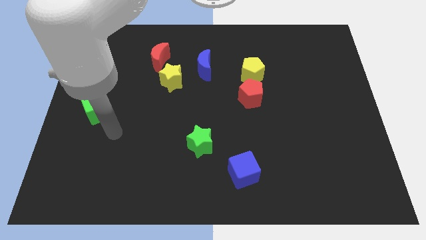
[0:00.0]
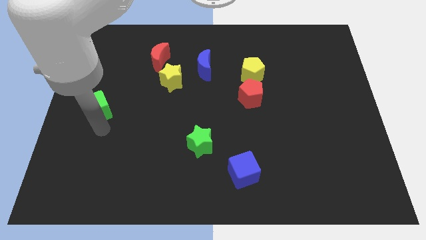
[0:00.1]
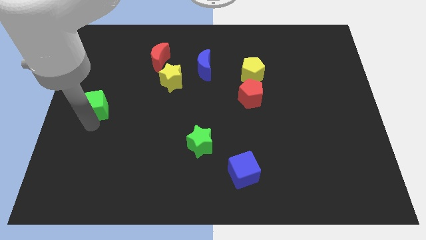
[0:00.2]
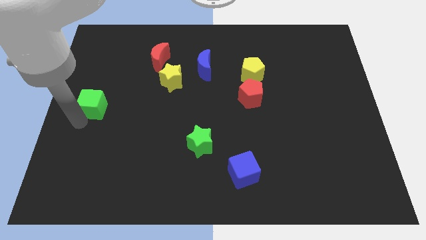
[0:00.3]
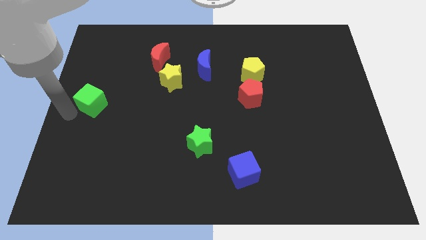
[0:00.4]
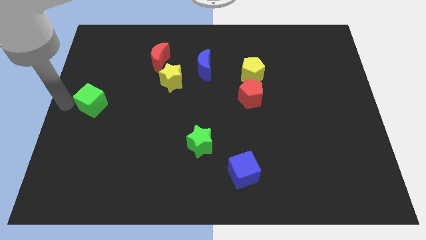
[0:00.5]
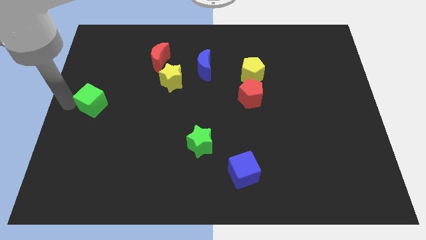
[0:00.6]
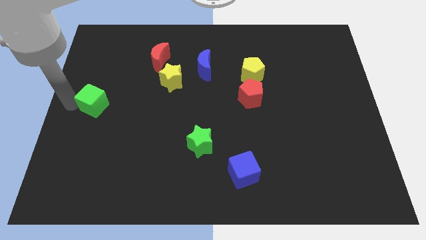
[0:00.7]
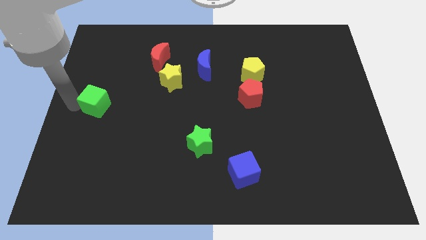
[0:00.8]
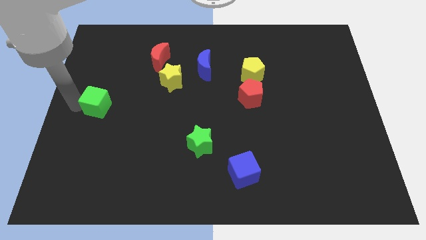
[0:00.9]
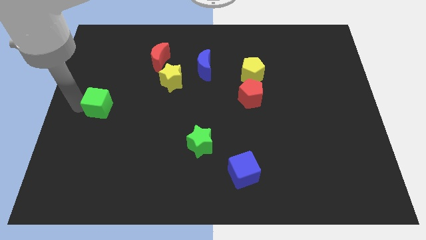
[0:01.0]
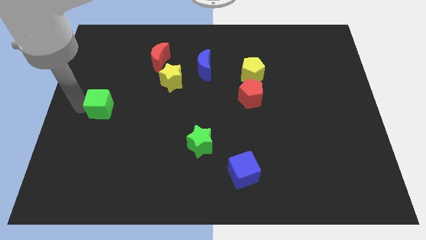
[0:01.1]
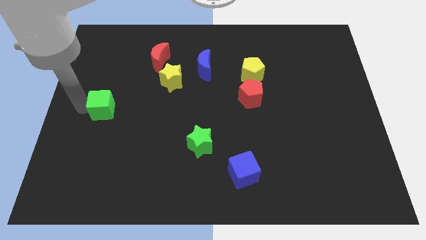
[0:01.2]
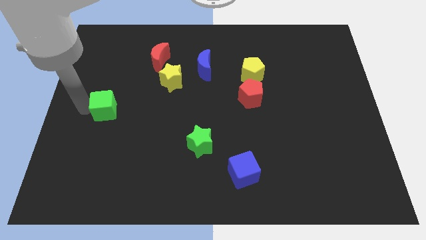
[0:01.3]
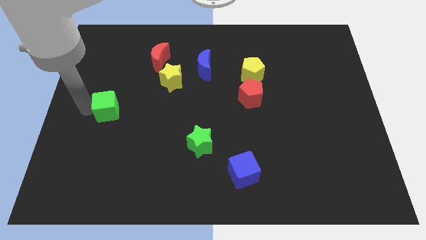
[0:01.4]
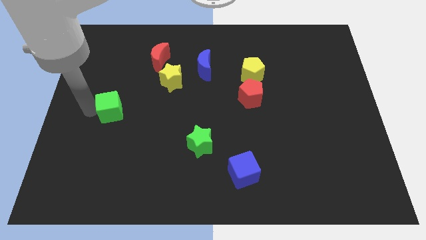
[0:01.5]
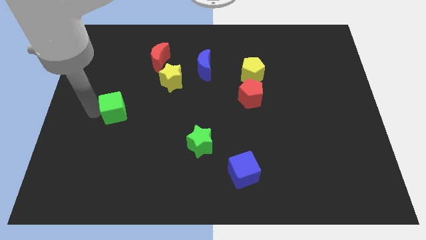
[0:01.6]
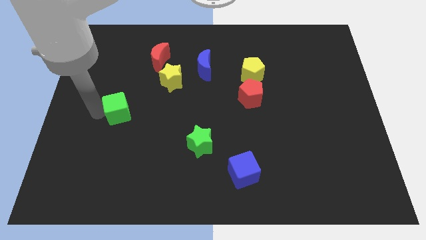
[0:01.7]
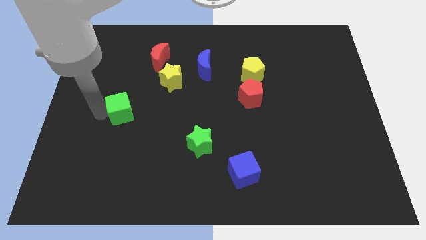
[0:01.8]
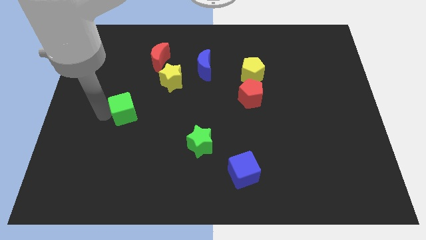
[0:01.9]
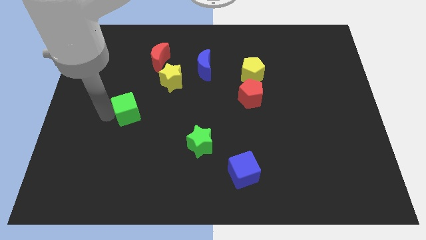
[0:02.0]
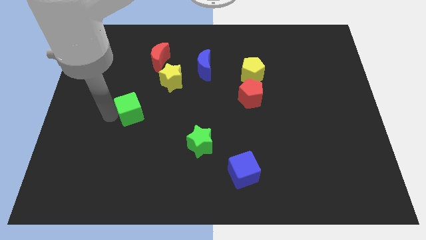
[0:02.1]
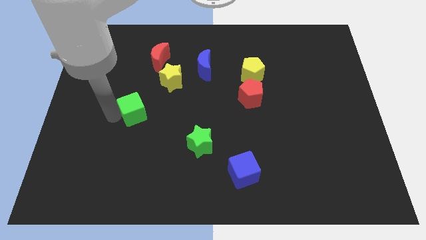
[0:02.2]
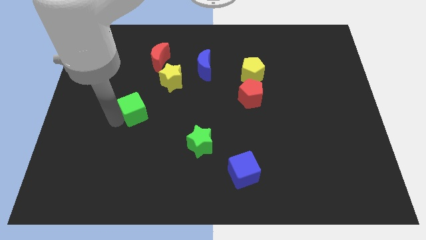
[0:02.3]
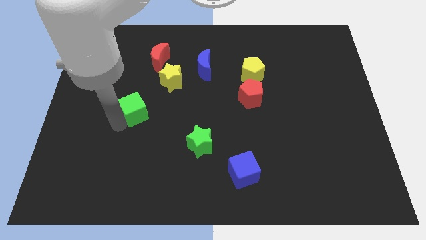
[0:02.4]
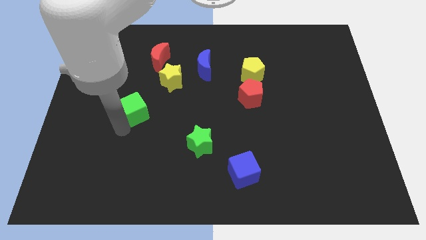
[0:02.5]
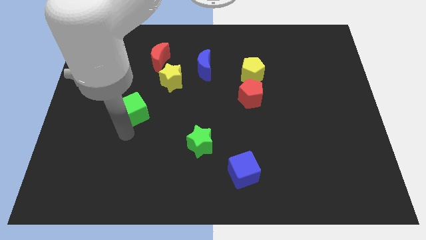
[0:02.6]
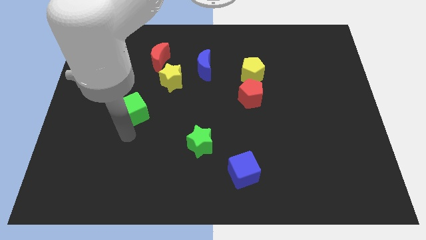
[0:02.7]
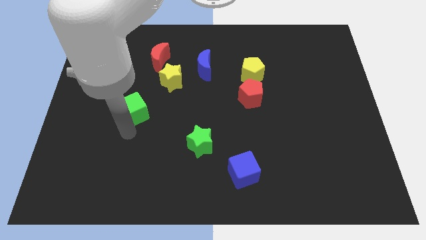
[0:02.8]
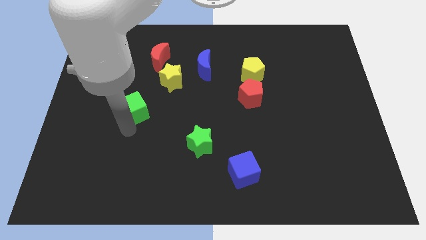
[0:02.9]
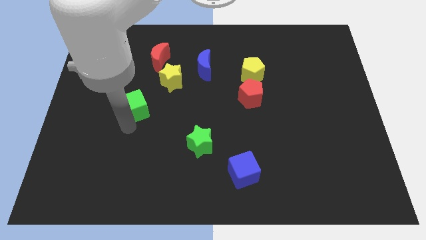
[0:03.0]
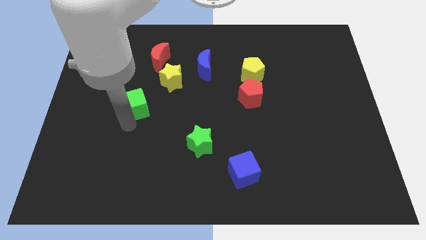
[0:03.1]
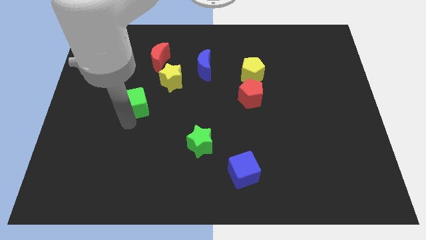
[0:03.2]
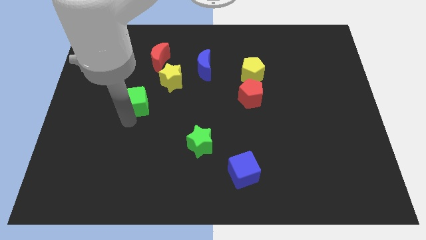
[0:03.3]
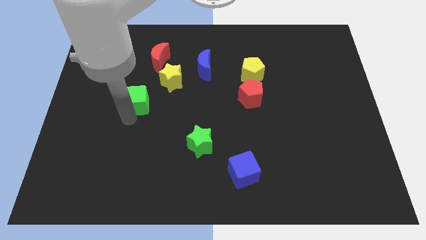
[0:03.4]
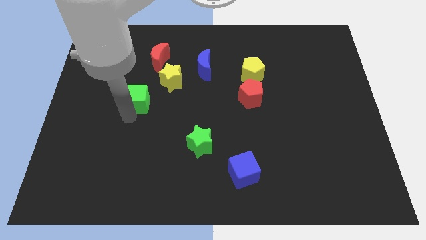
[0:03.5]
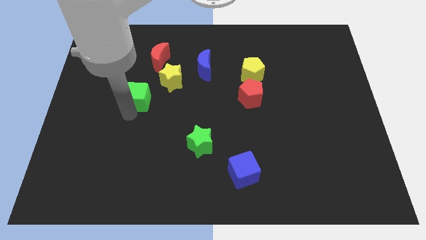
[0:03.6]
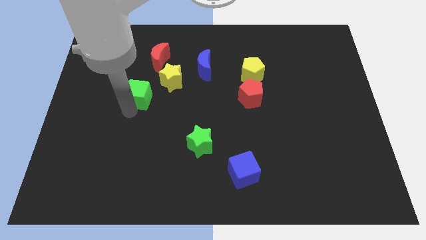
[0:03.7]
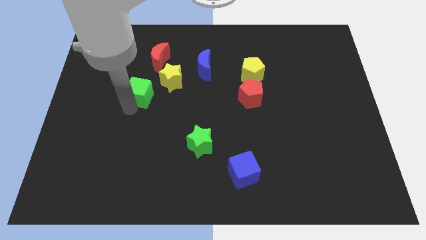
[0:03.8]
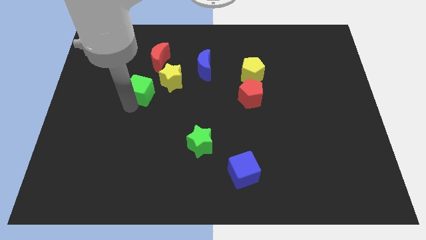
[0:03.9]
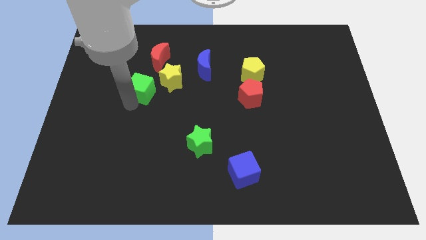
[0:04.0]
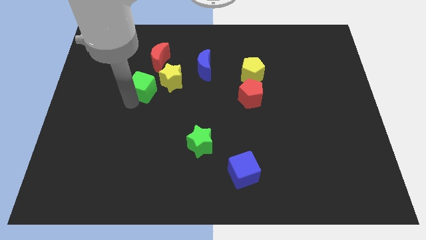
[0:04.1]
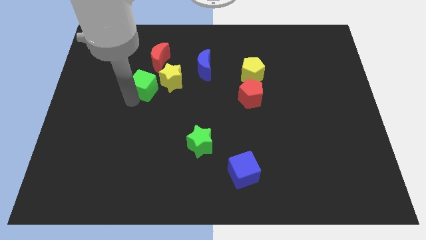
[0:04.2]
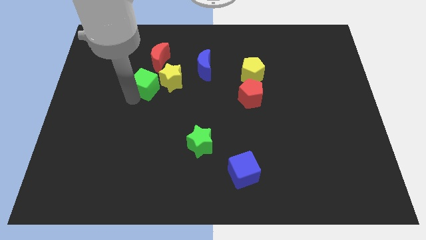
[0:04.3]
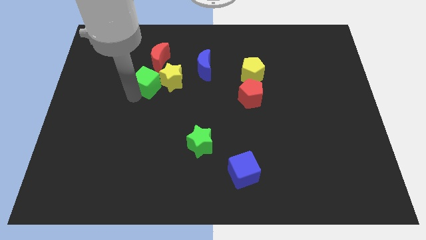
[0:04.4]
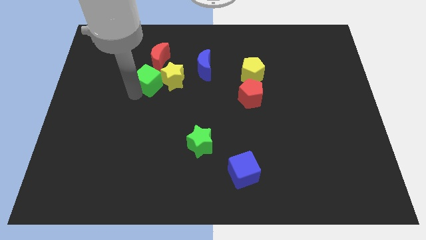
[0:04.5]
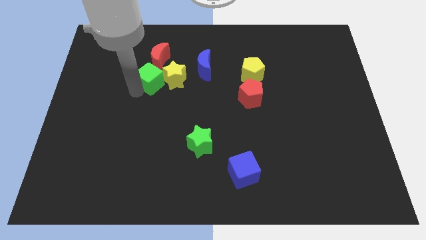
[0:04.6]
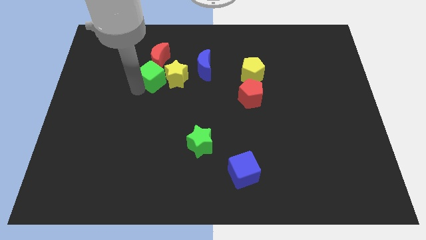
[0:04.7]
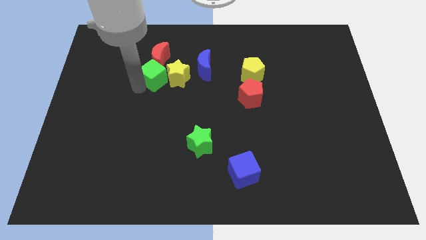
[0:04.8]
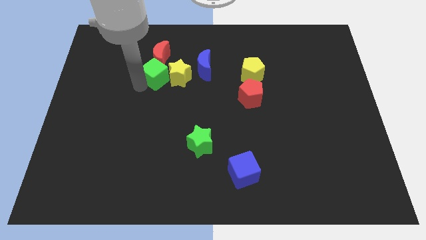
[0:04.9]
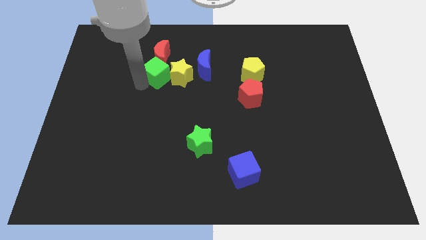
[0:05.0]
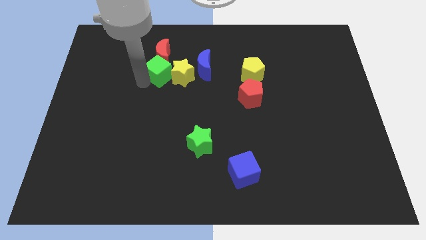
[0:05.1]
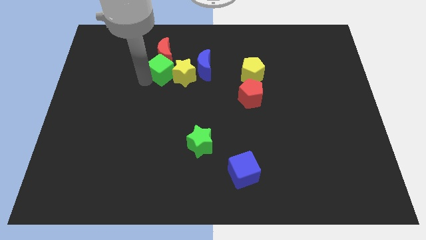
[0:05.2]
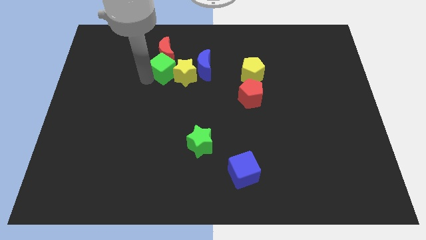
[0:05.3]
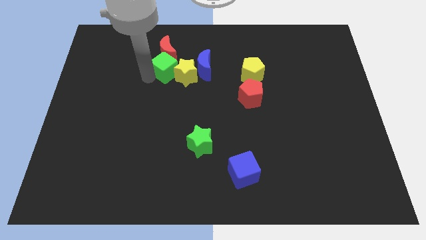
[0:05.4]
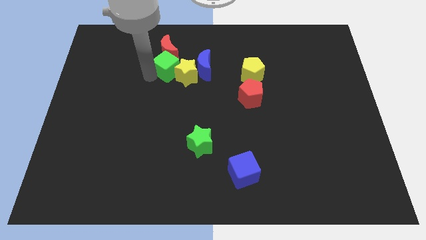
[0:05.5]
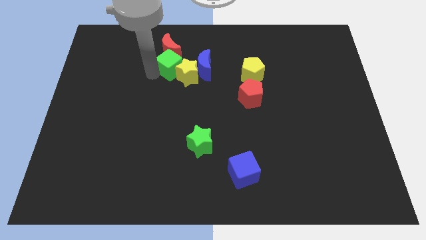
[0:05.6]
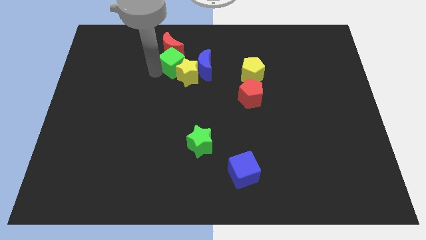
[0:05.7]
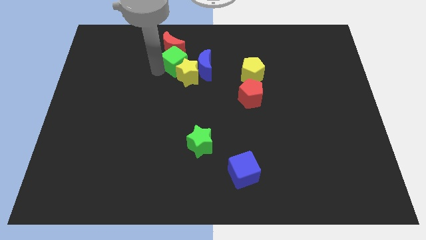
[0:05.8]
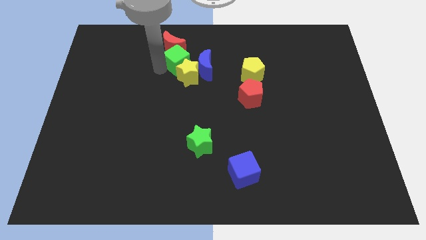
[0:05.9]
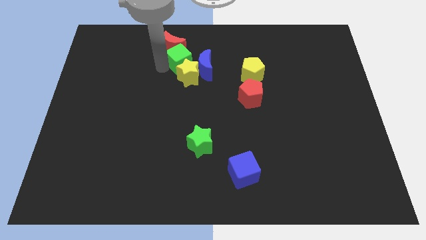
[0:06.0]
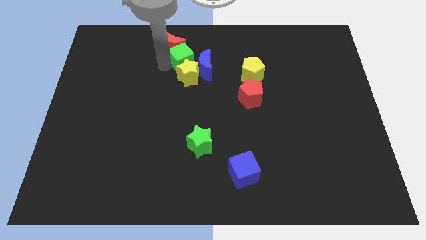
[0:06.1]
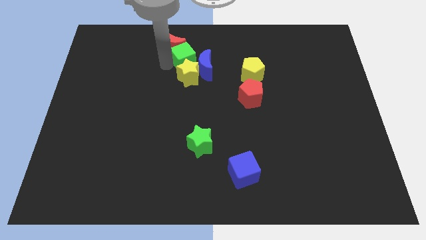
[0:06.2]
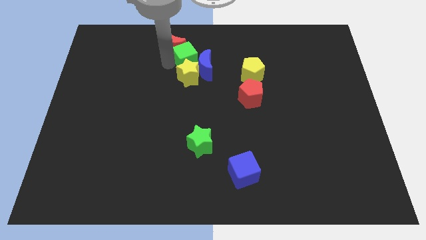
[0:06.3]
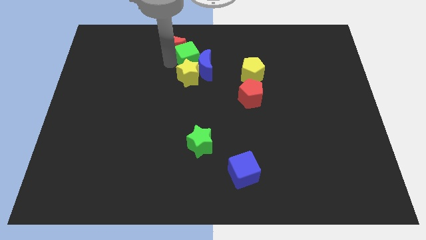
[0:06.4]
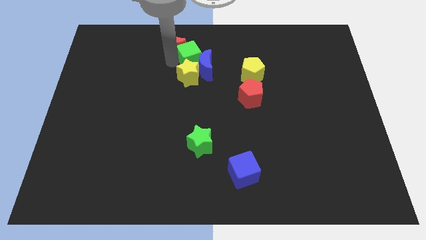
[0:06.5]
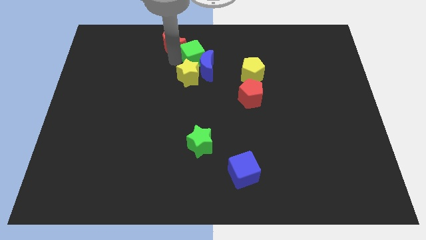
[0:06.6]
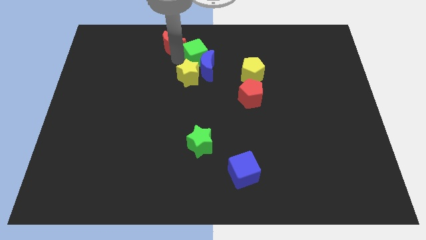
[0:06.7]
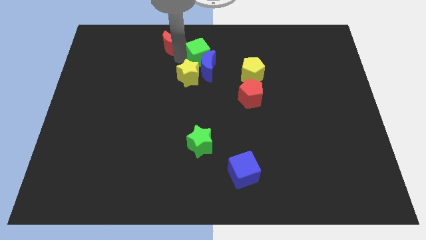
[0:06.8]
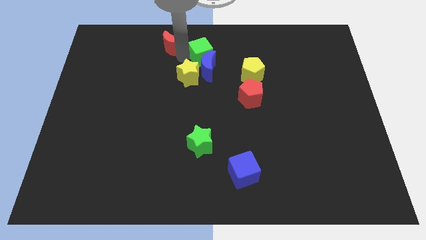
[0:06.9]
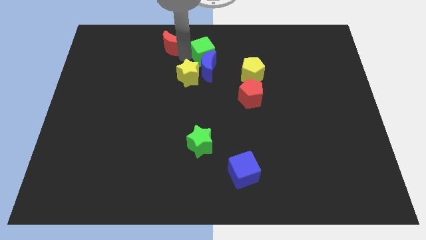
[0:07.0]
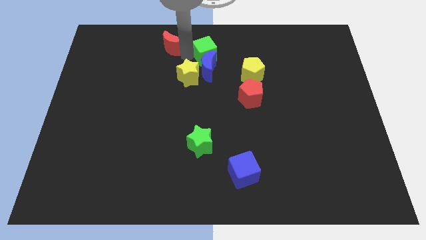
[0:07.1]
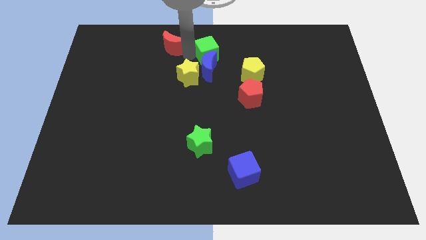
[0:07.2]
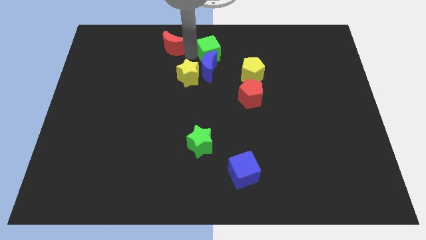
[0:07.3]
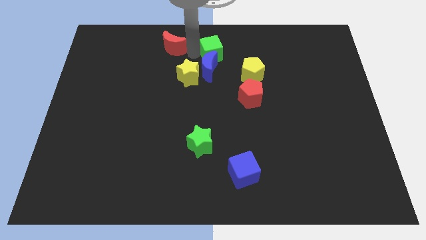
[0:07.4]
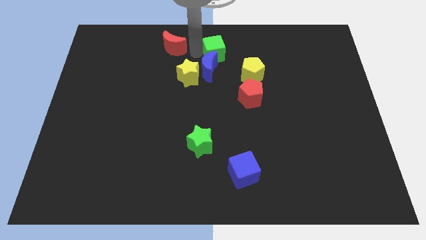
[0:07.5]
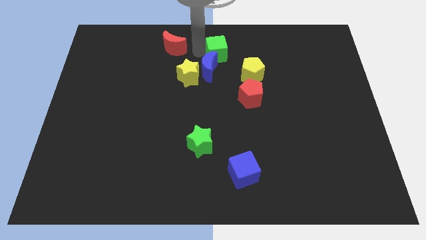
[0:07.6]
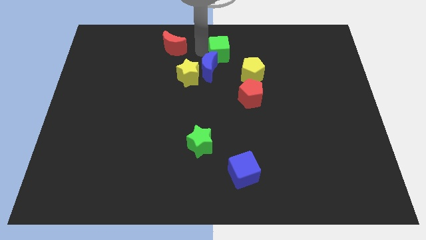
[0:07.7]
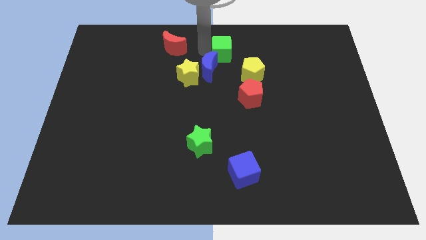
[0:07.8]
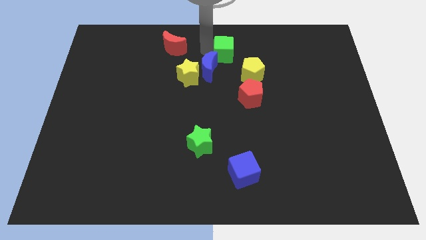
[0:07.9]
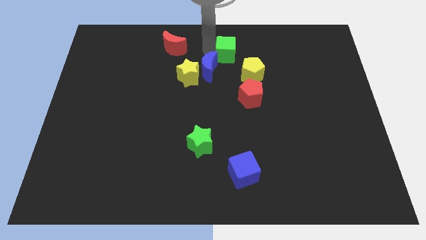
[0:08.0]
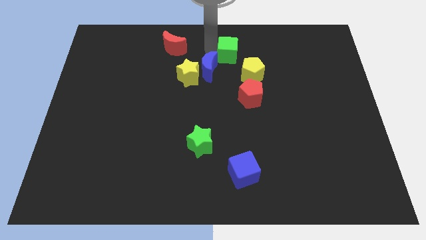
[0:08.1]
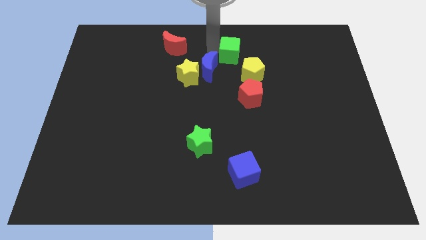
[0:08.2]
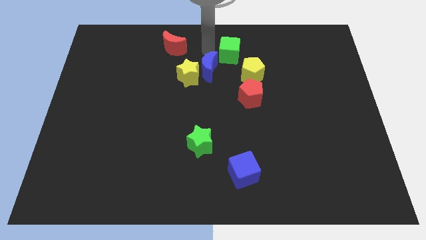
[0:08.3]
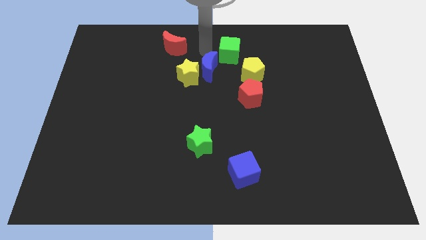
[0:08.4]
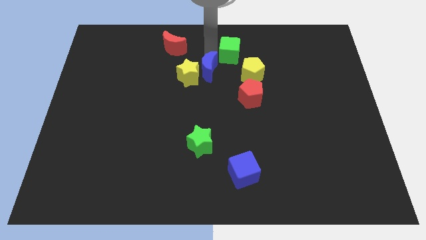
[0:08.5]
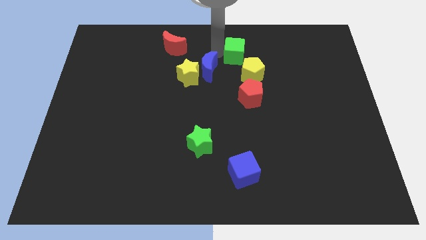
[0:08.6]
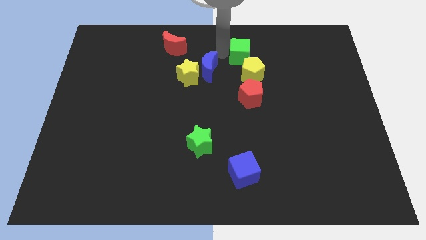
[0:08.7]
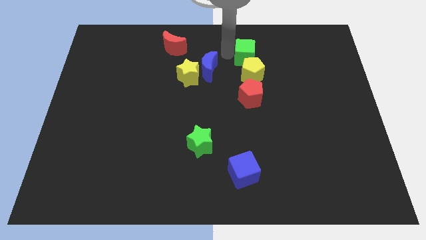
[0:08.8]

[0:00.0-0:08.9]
push the green cube right of the blue moon
